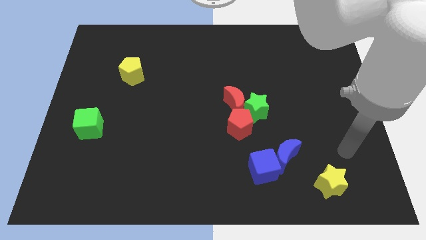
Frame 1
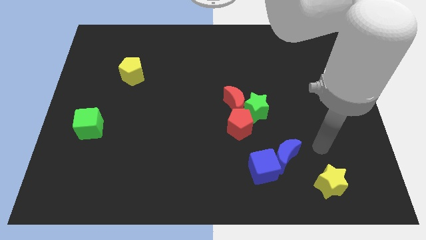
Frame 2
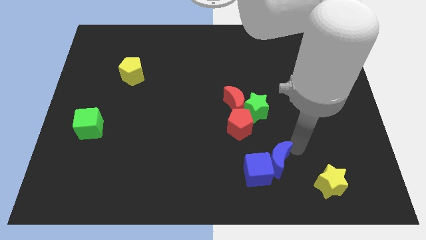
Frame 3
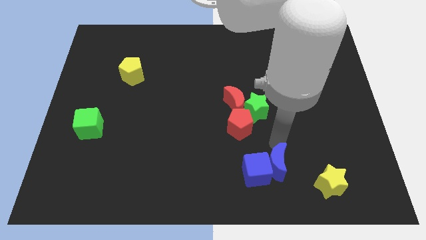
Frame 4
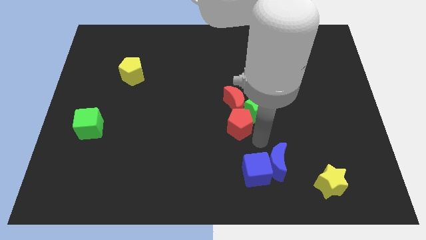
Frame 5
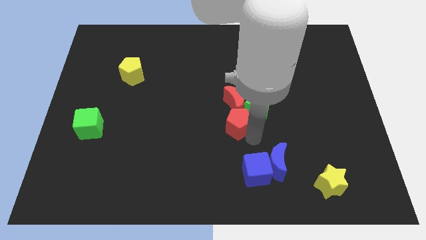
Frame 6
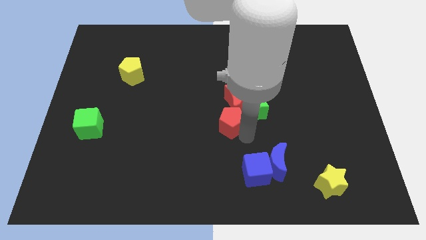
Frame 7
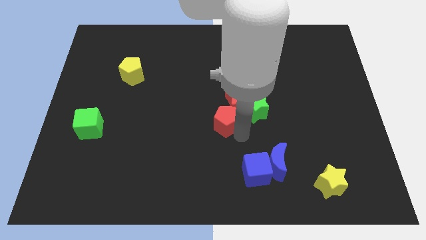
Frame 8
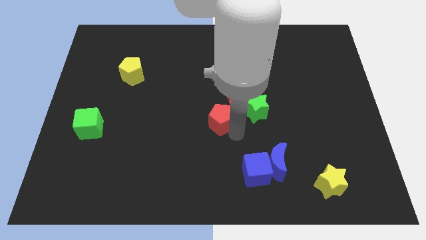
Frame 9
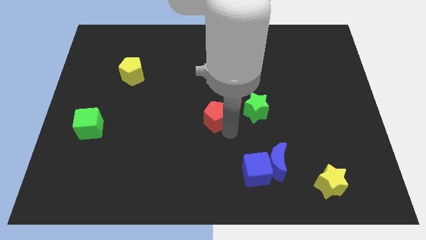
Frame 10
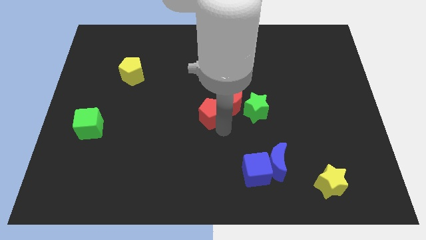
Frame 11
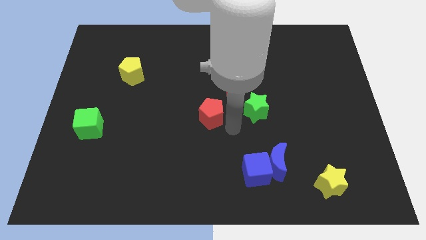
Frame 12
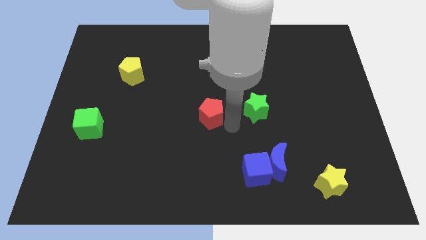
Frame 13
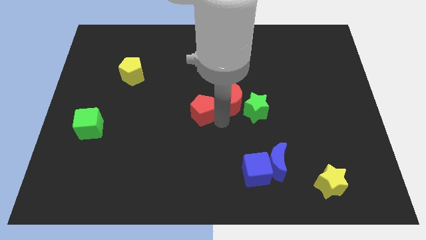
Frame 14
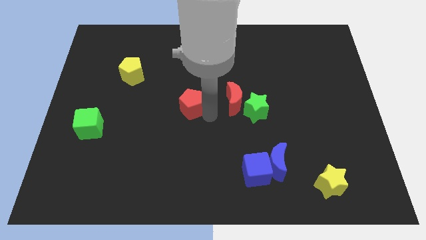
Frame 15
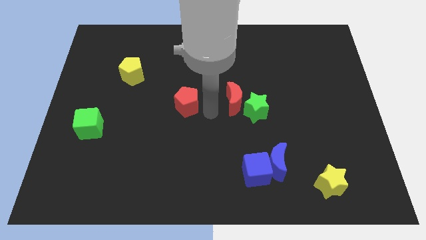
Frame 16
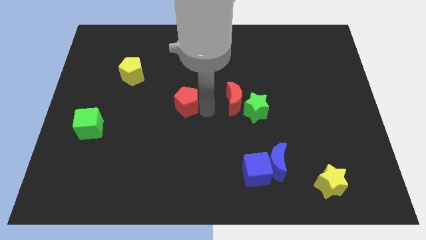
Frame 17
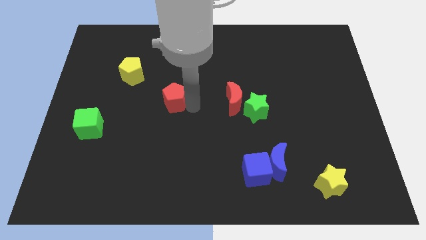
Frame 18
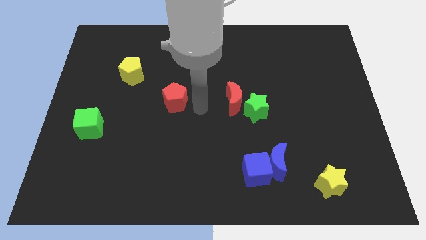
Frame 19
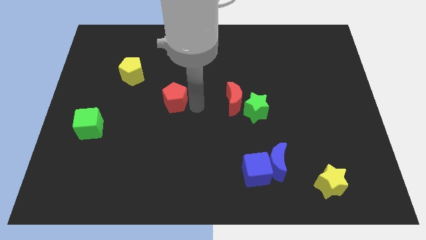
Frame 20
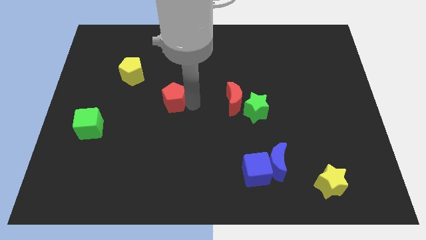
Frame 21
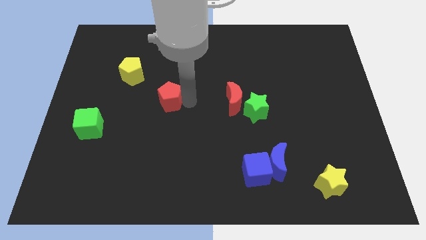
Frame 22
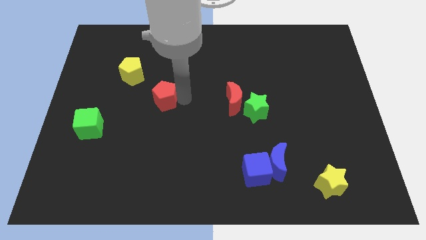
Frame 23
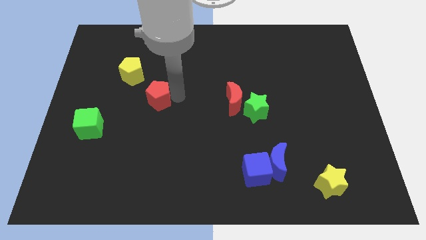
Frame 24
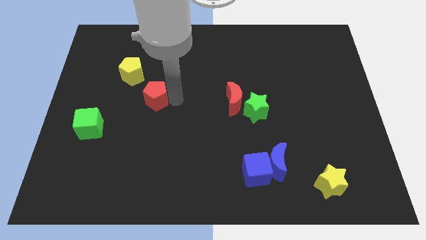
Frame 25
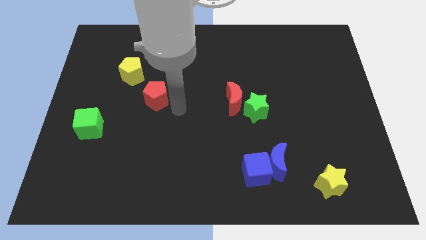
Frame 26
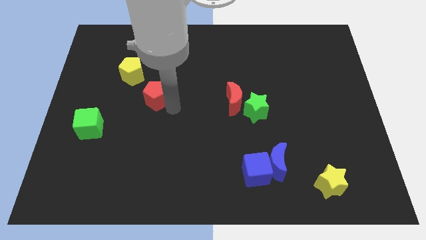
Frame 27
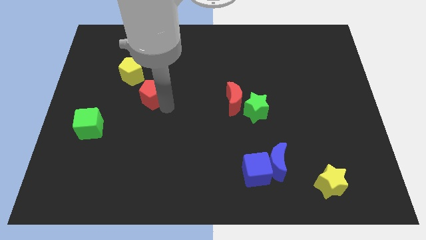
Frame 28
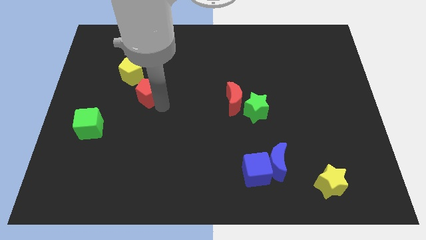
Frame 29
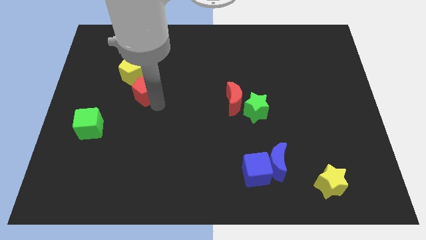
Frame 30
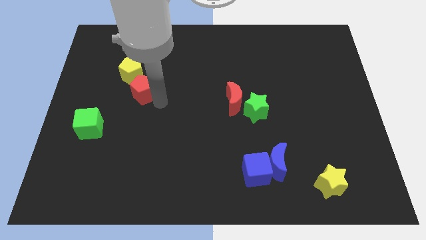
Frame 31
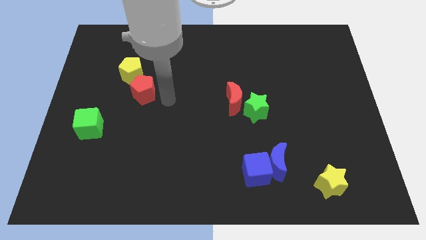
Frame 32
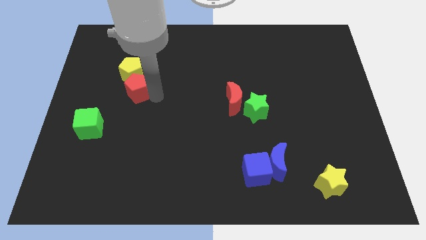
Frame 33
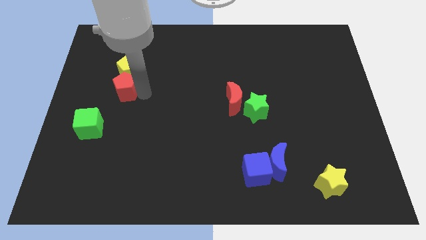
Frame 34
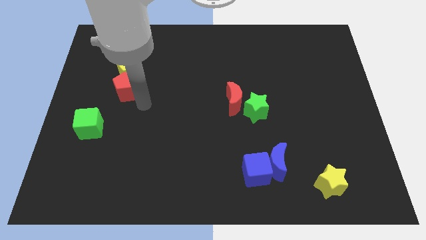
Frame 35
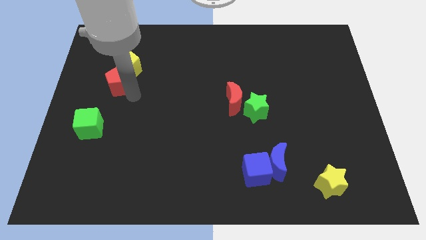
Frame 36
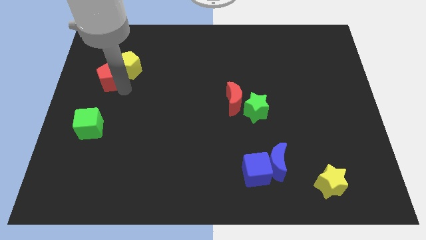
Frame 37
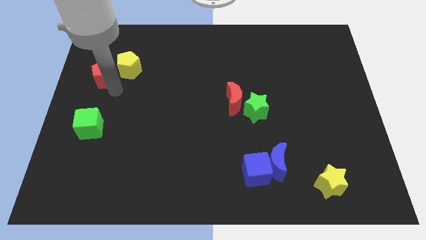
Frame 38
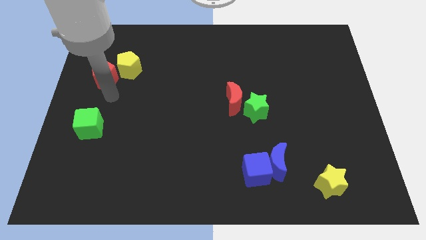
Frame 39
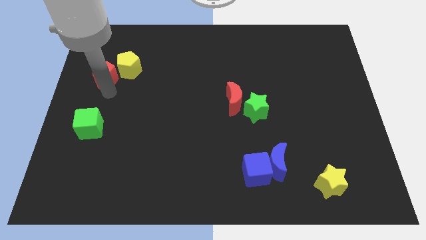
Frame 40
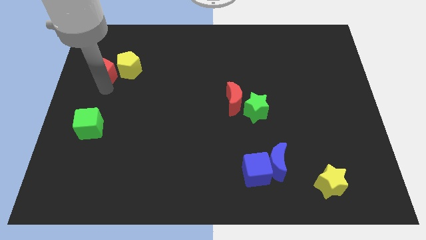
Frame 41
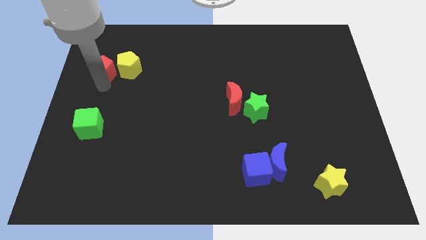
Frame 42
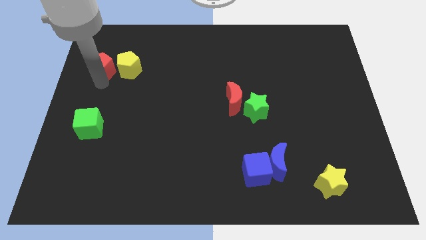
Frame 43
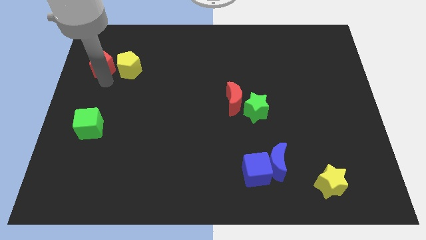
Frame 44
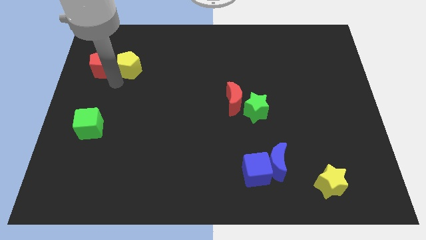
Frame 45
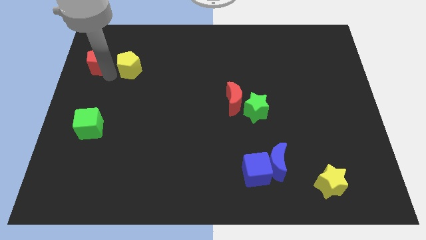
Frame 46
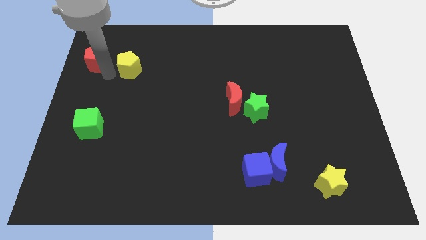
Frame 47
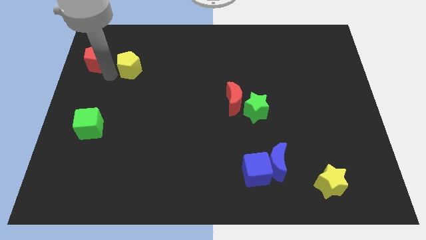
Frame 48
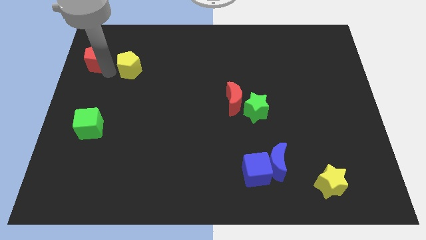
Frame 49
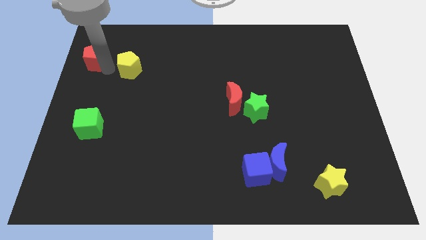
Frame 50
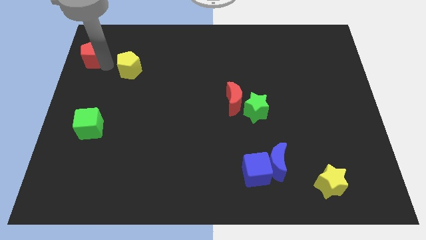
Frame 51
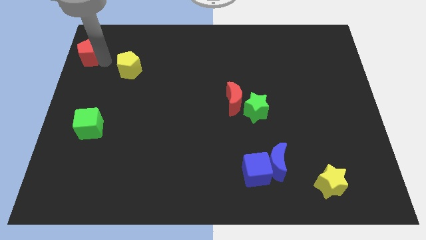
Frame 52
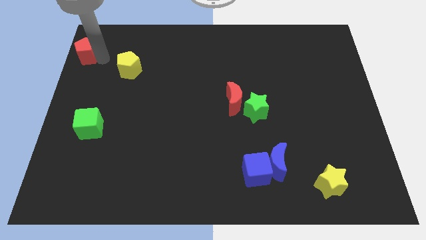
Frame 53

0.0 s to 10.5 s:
push the red pentagon to the top left of the board

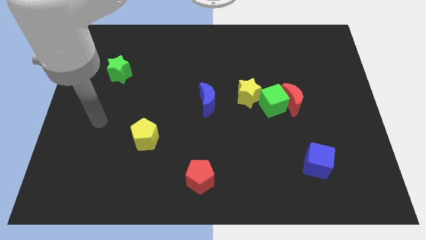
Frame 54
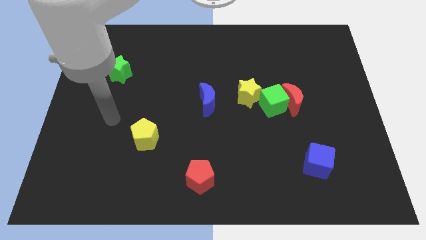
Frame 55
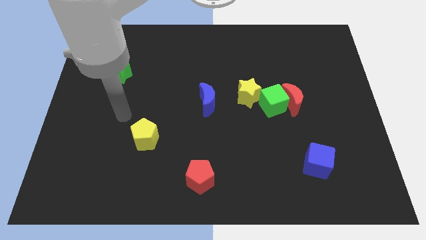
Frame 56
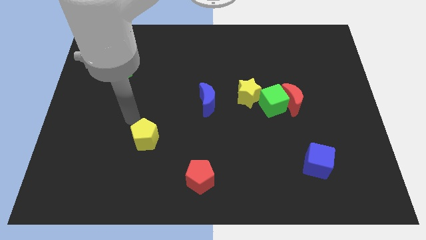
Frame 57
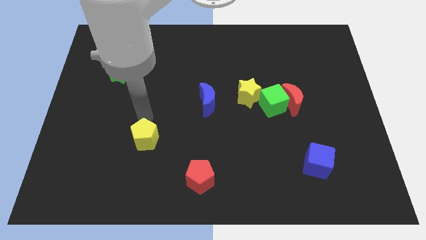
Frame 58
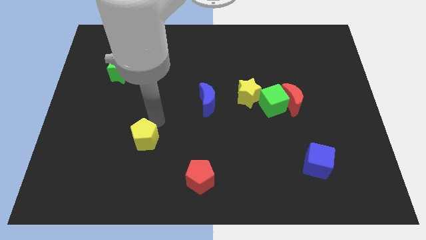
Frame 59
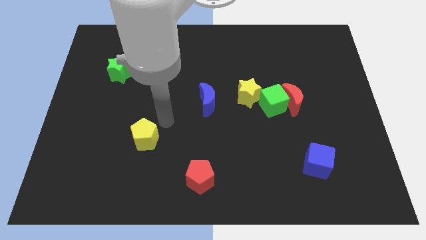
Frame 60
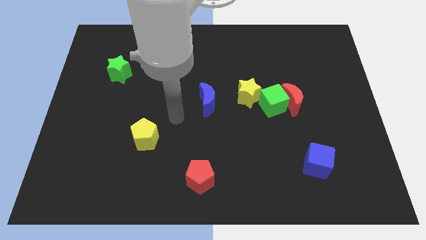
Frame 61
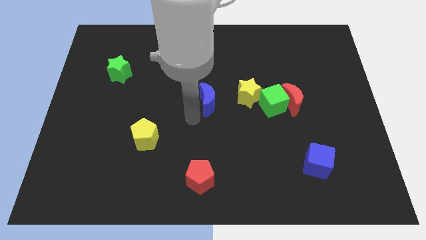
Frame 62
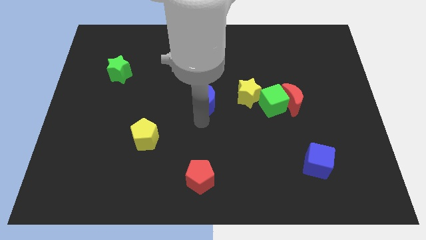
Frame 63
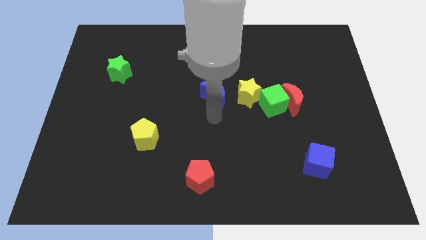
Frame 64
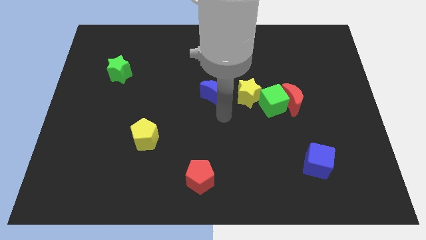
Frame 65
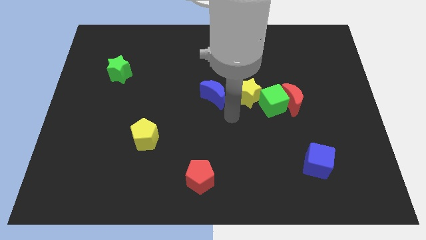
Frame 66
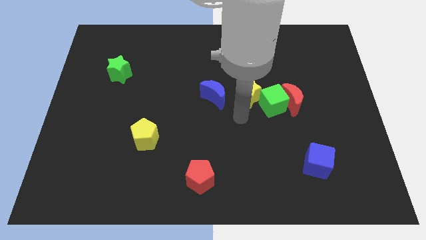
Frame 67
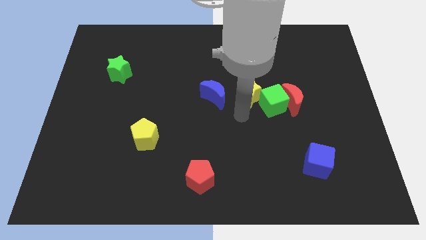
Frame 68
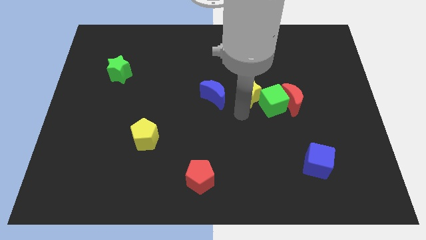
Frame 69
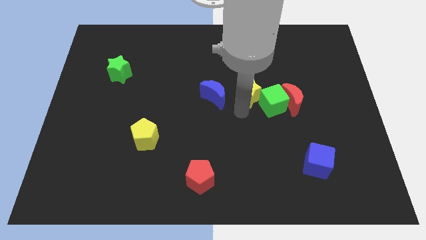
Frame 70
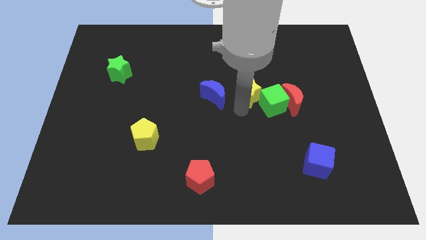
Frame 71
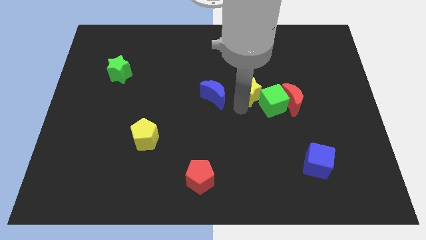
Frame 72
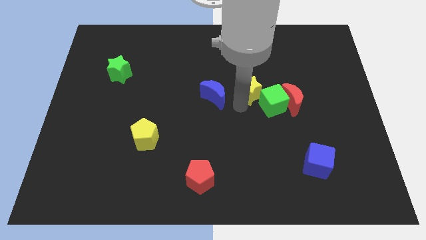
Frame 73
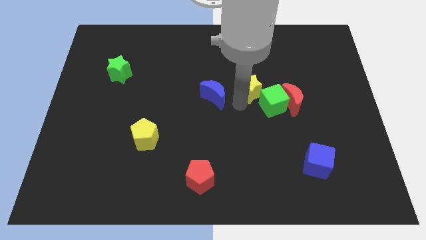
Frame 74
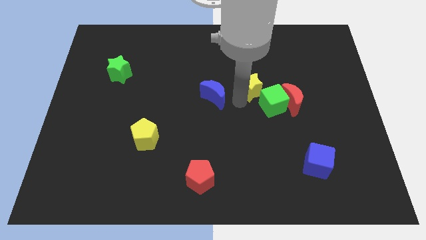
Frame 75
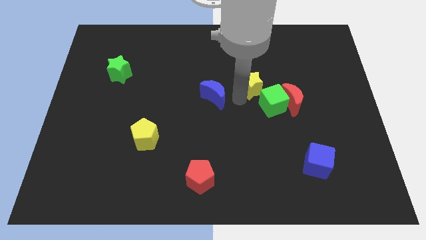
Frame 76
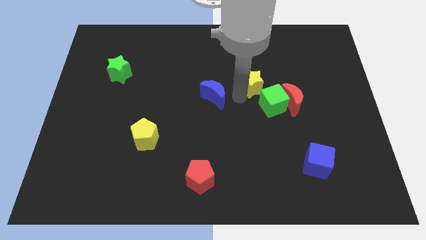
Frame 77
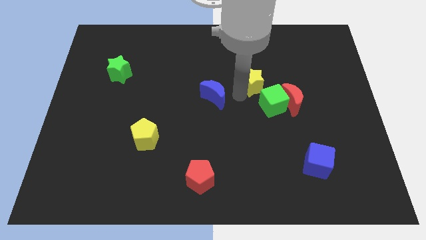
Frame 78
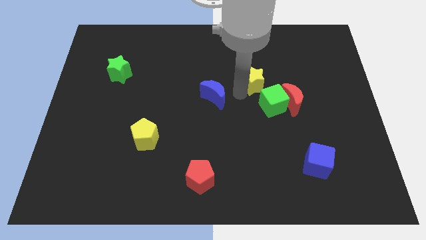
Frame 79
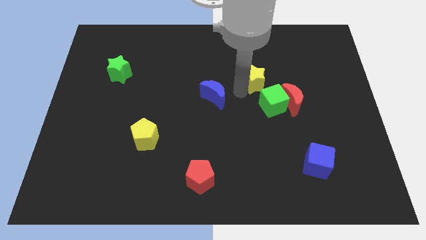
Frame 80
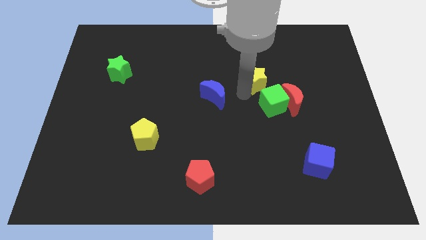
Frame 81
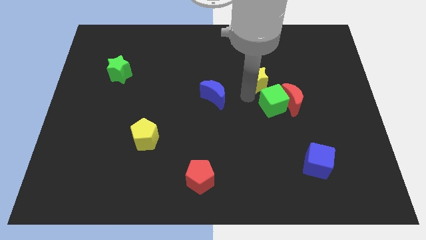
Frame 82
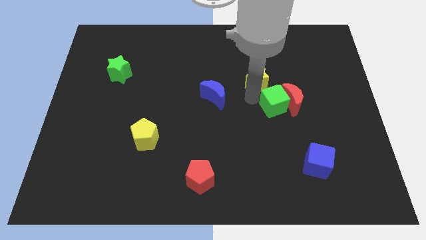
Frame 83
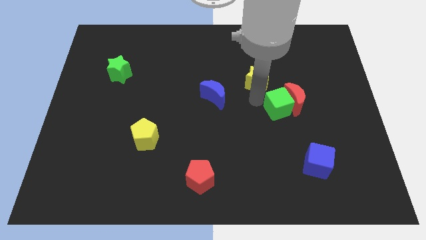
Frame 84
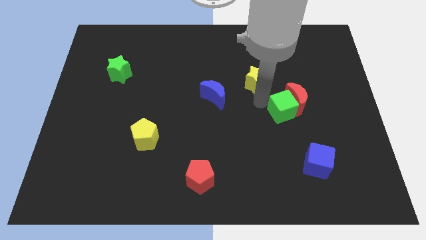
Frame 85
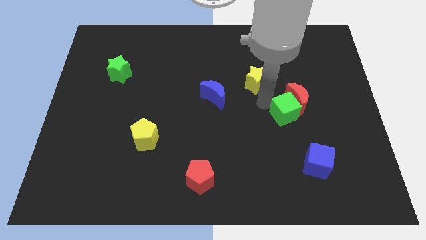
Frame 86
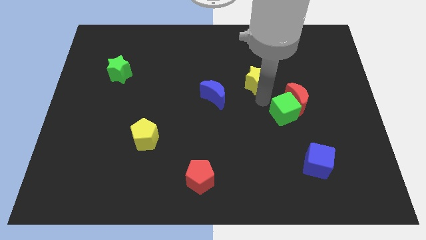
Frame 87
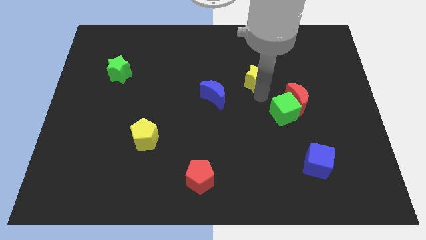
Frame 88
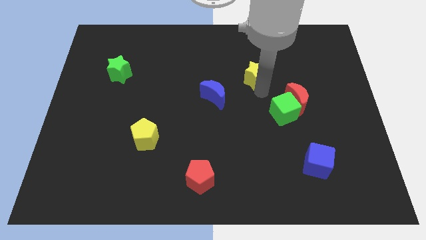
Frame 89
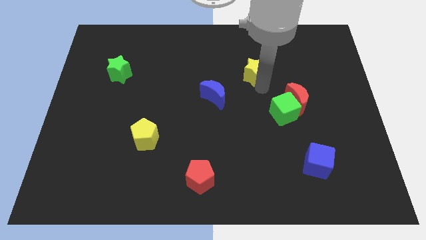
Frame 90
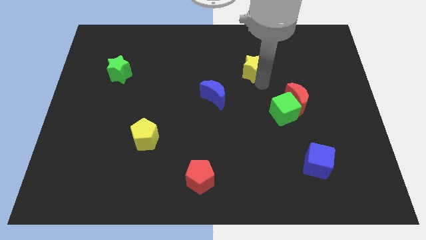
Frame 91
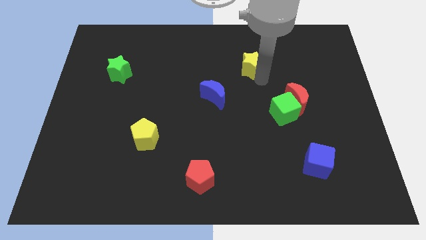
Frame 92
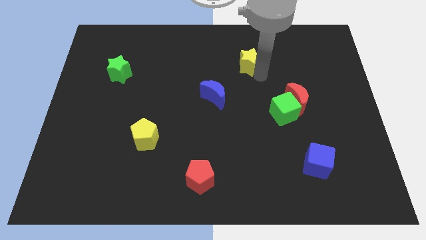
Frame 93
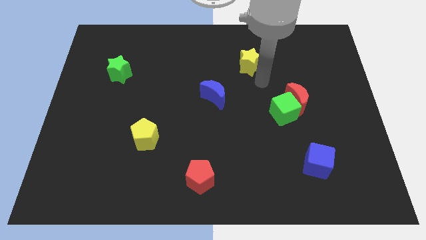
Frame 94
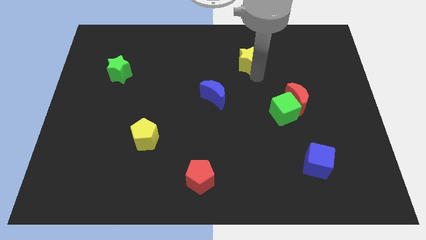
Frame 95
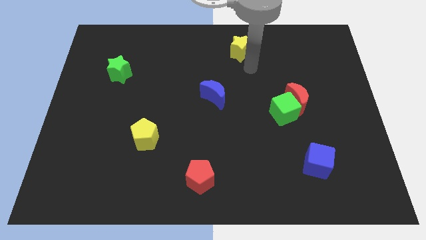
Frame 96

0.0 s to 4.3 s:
push the yellow star to the towards your base
